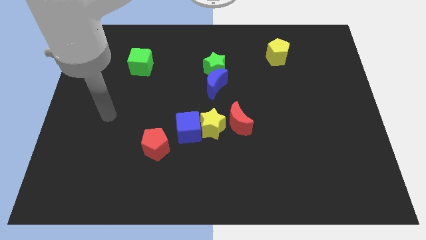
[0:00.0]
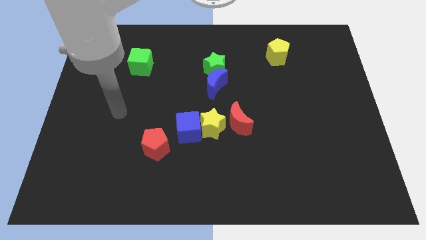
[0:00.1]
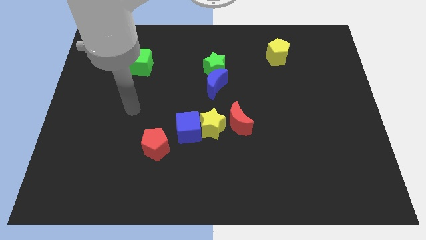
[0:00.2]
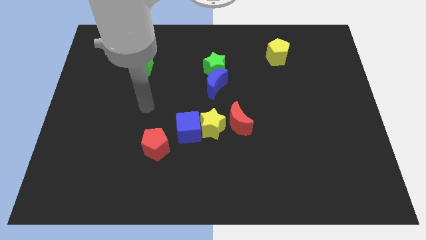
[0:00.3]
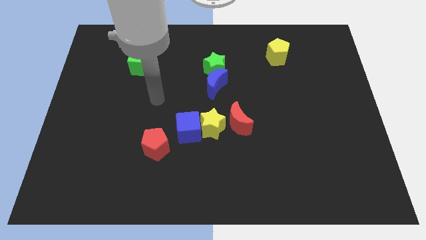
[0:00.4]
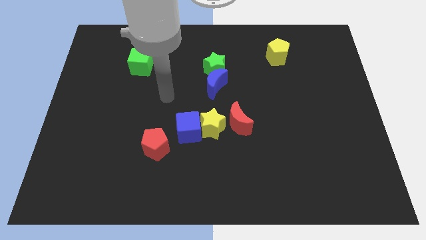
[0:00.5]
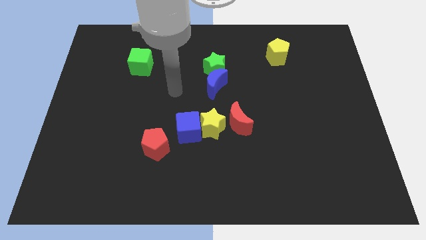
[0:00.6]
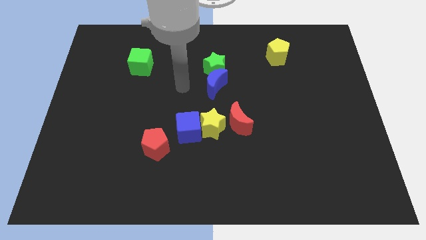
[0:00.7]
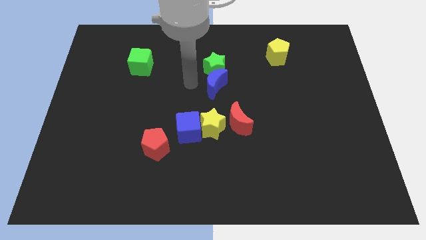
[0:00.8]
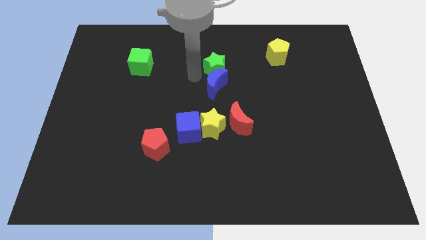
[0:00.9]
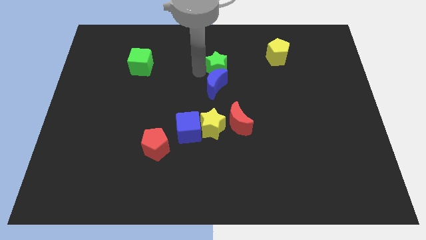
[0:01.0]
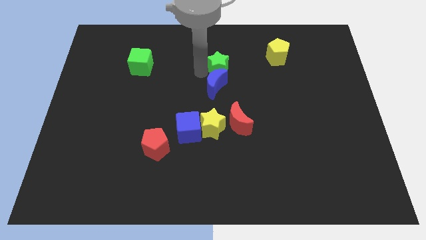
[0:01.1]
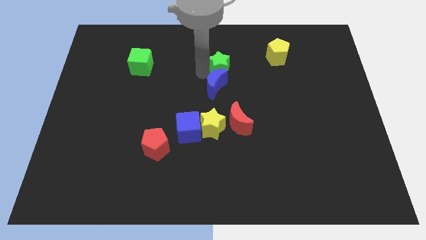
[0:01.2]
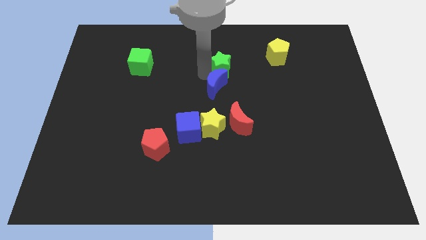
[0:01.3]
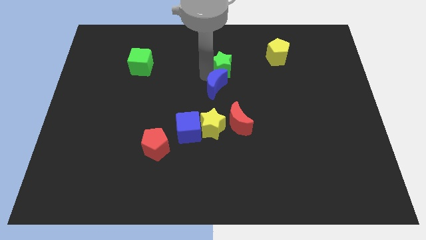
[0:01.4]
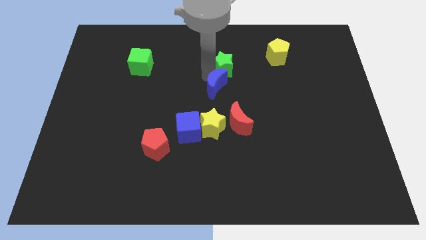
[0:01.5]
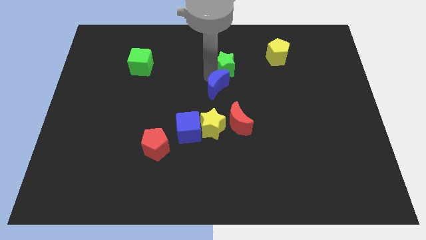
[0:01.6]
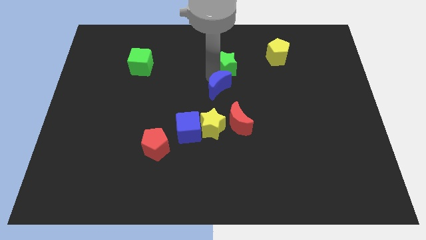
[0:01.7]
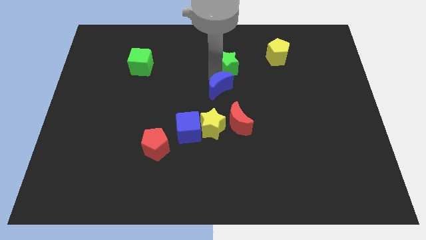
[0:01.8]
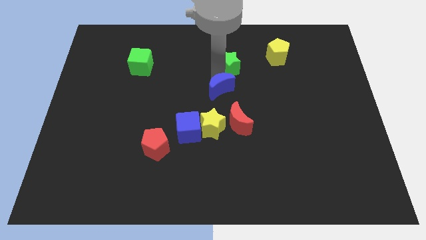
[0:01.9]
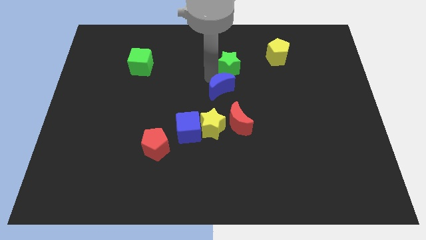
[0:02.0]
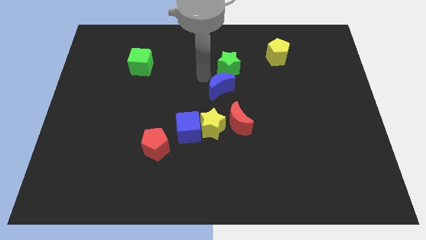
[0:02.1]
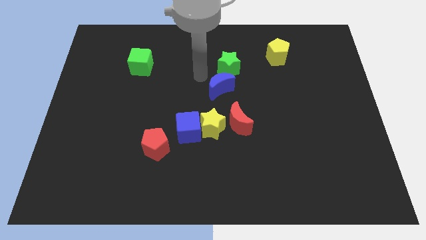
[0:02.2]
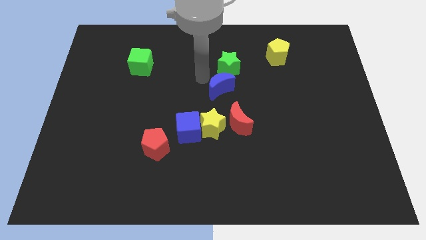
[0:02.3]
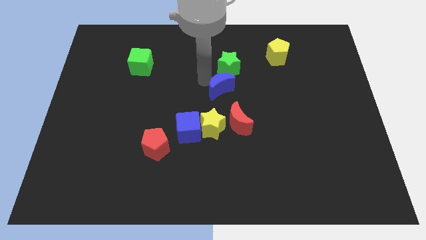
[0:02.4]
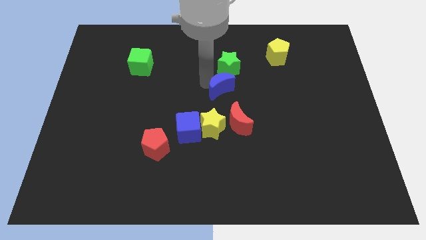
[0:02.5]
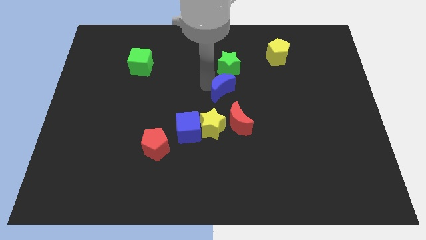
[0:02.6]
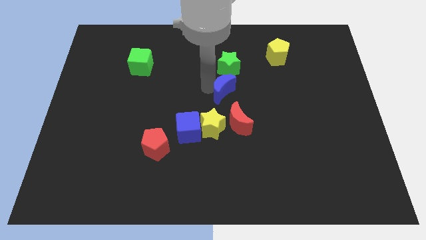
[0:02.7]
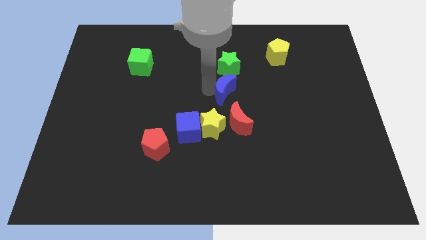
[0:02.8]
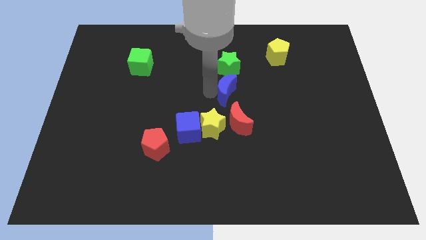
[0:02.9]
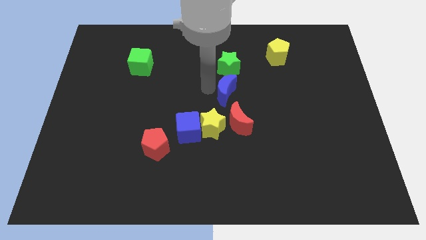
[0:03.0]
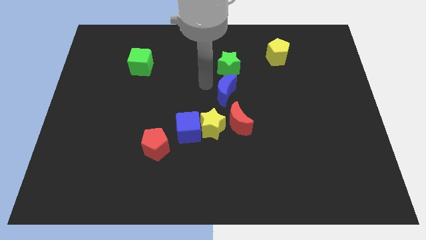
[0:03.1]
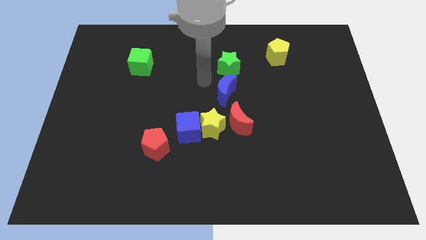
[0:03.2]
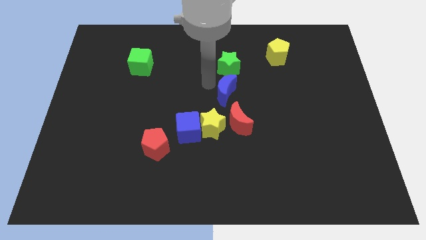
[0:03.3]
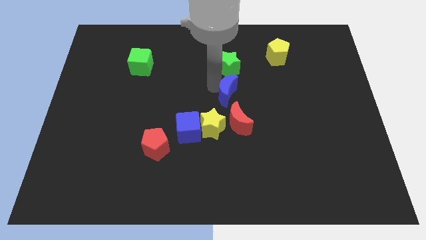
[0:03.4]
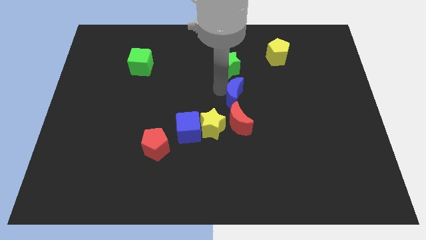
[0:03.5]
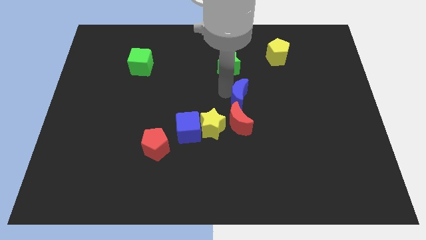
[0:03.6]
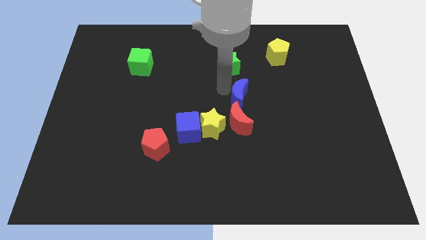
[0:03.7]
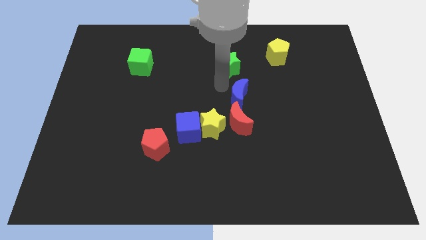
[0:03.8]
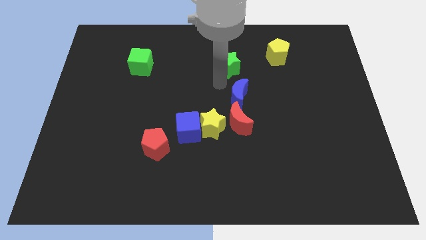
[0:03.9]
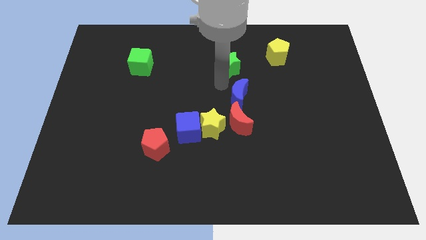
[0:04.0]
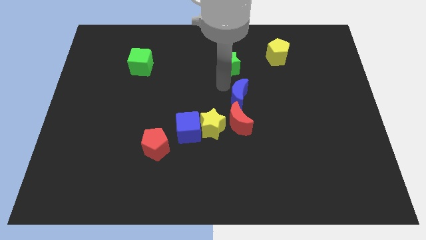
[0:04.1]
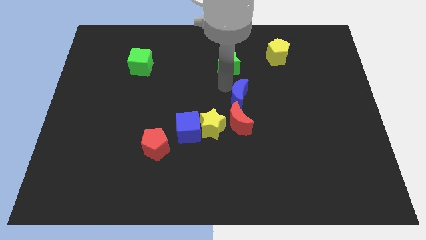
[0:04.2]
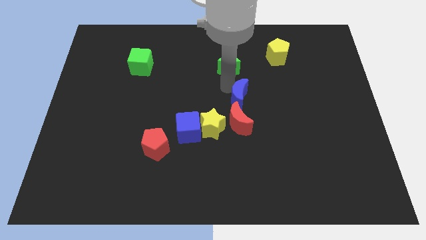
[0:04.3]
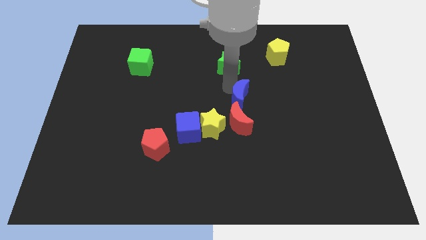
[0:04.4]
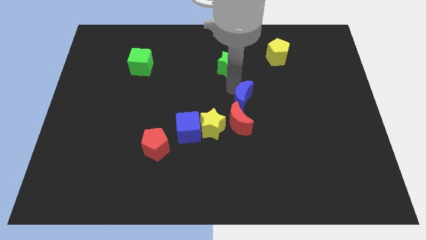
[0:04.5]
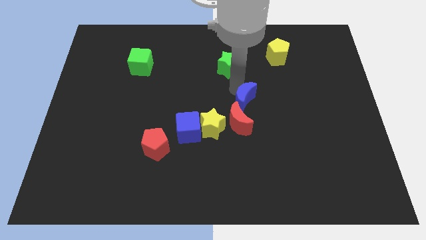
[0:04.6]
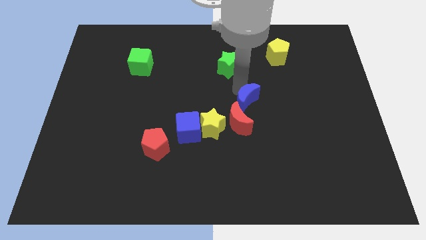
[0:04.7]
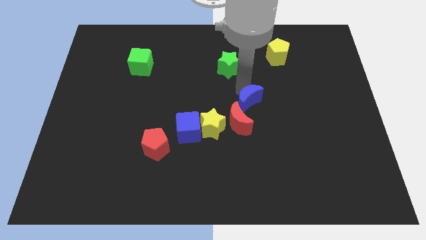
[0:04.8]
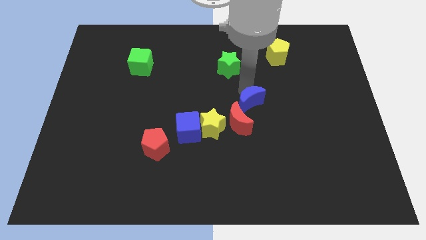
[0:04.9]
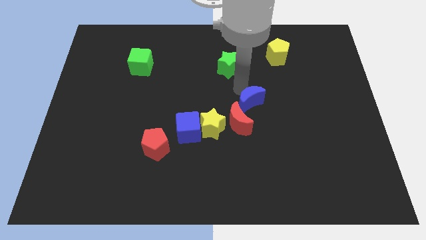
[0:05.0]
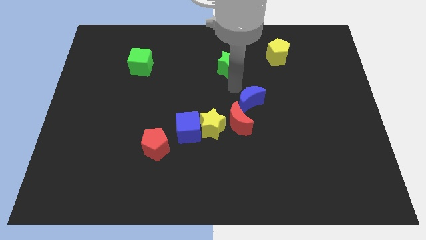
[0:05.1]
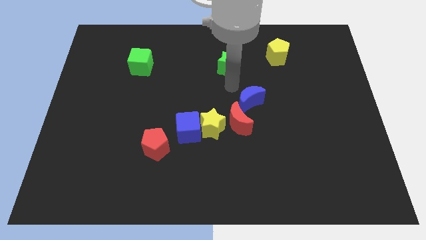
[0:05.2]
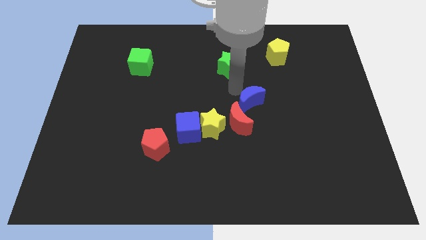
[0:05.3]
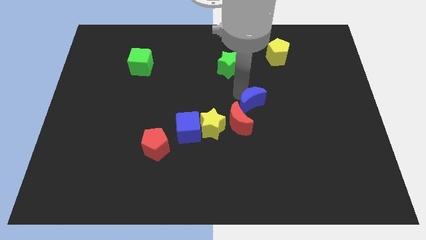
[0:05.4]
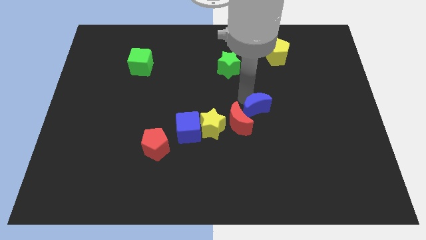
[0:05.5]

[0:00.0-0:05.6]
put the blue moon right of the red moon

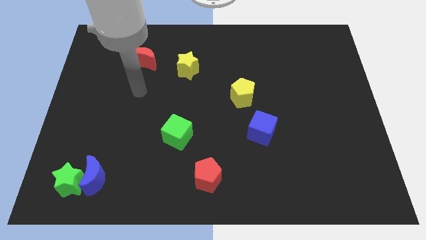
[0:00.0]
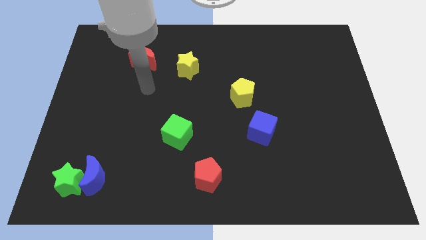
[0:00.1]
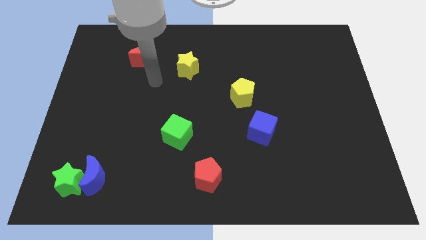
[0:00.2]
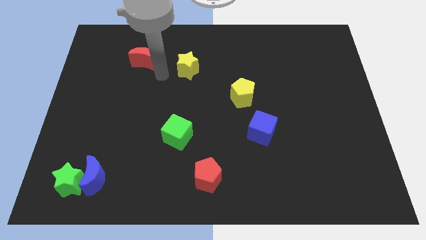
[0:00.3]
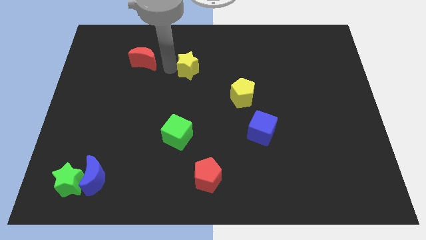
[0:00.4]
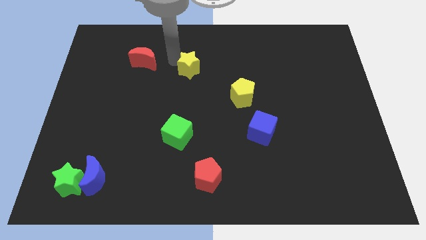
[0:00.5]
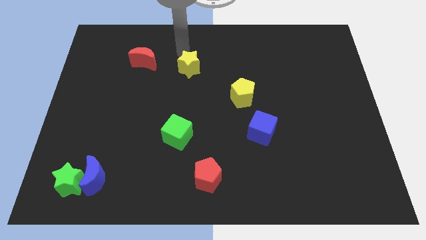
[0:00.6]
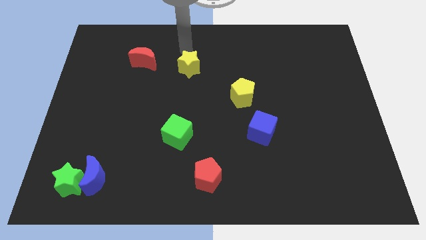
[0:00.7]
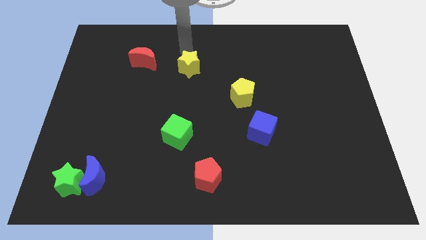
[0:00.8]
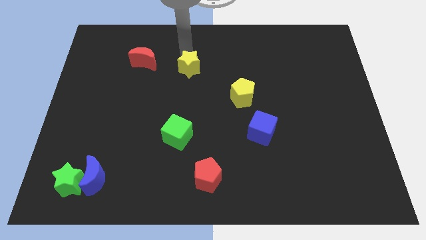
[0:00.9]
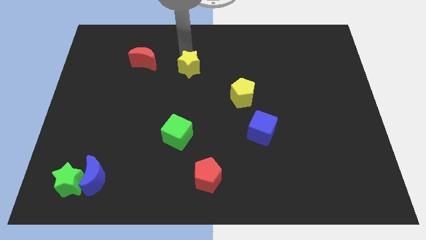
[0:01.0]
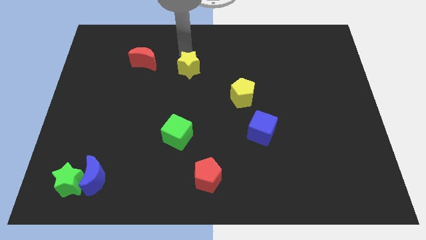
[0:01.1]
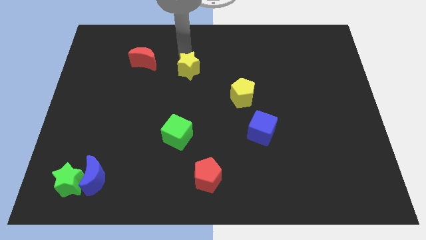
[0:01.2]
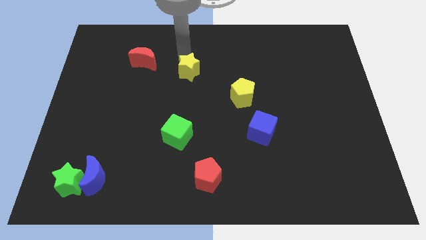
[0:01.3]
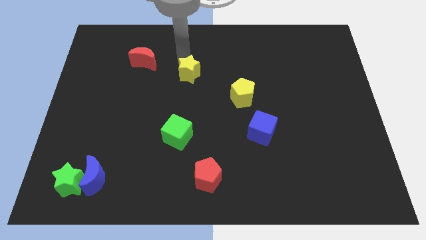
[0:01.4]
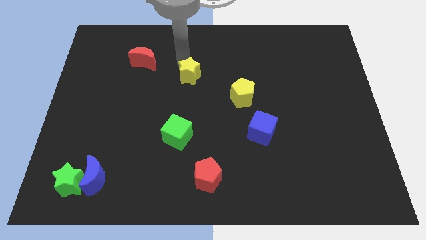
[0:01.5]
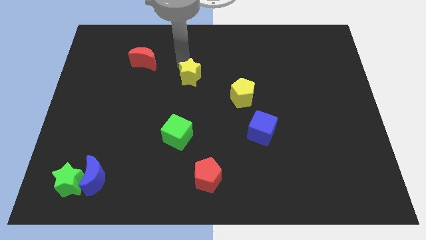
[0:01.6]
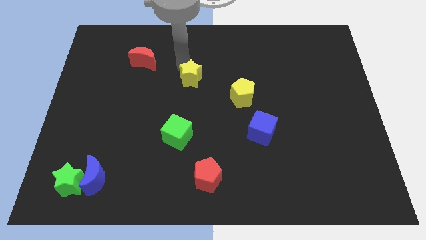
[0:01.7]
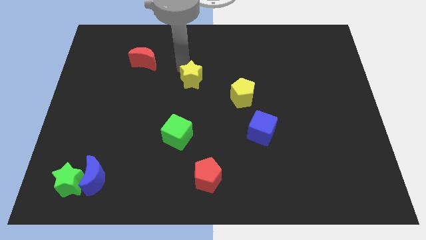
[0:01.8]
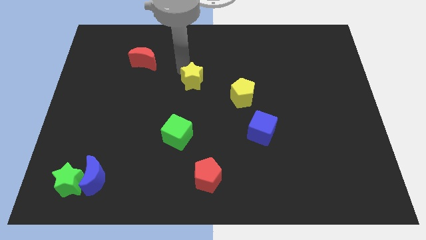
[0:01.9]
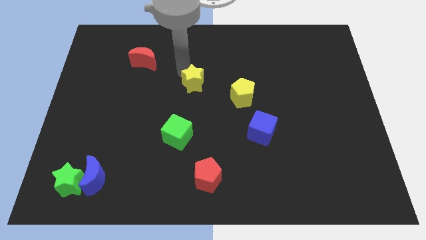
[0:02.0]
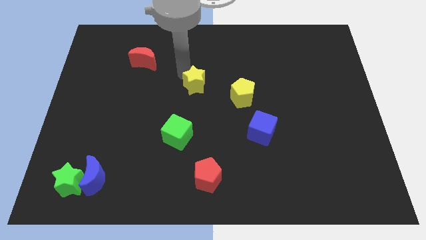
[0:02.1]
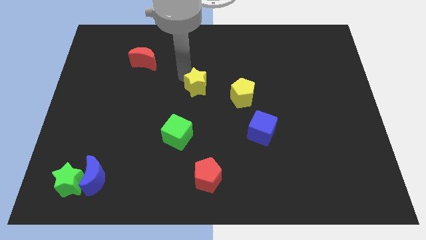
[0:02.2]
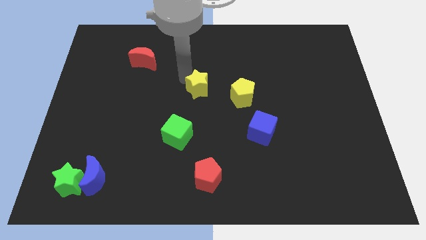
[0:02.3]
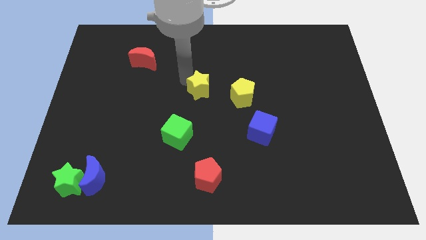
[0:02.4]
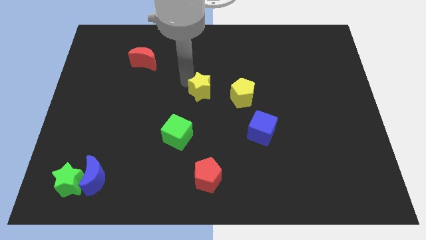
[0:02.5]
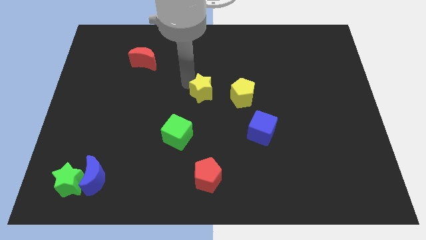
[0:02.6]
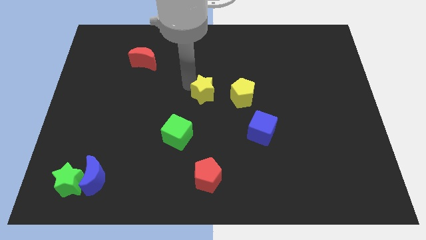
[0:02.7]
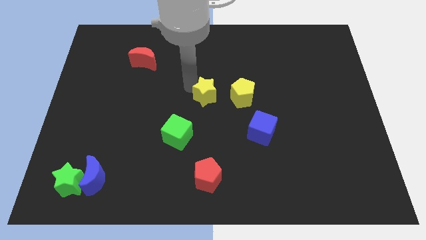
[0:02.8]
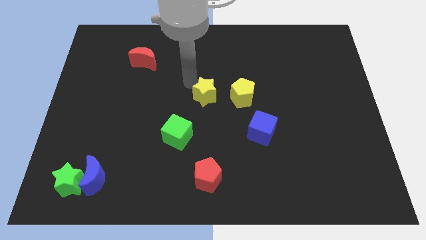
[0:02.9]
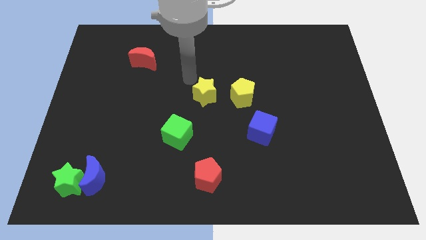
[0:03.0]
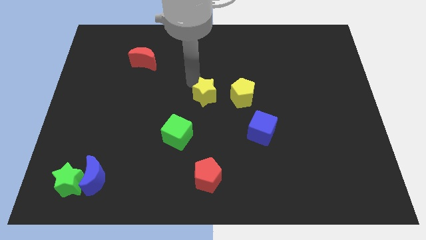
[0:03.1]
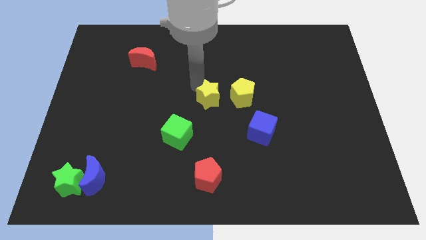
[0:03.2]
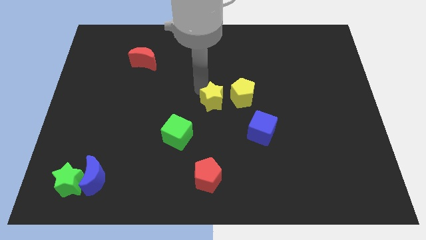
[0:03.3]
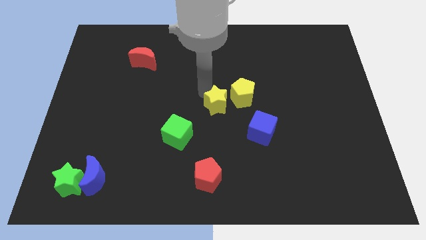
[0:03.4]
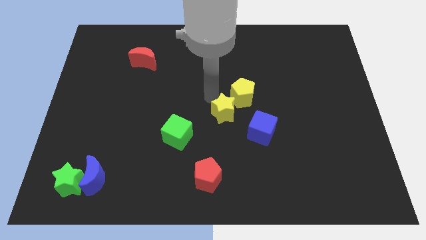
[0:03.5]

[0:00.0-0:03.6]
push the yellow star below the yellow pentagon
